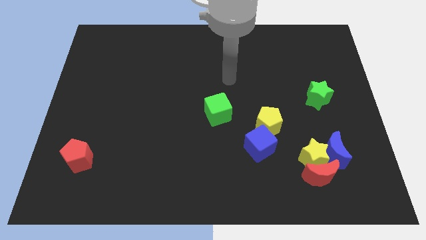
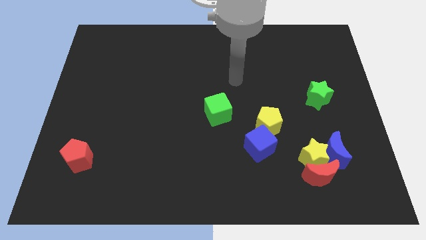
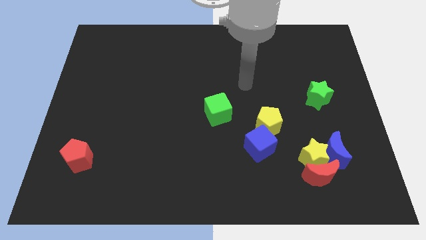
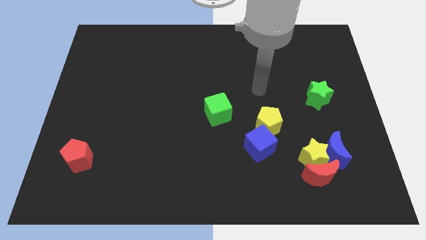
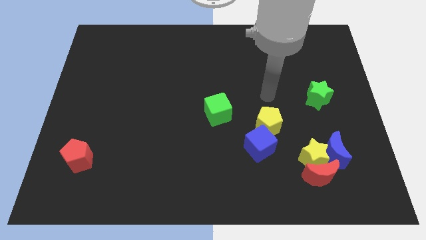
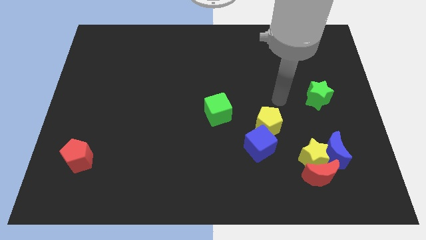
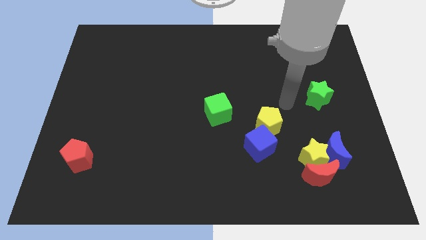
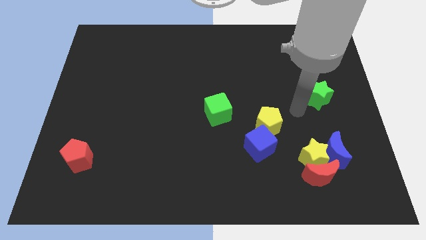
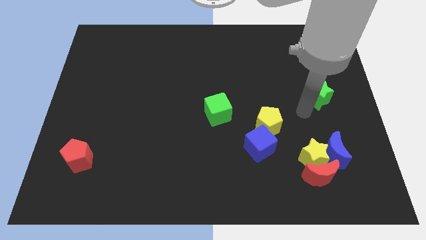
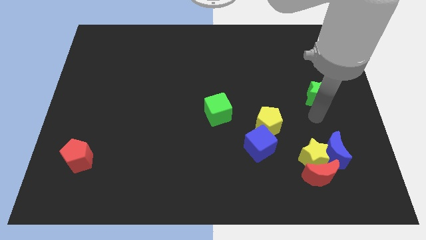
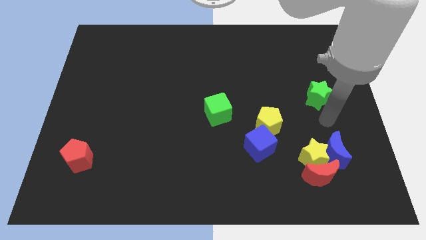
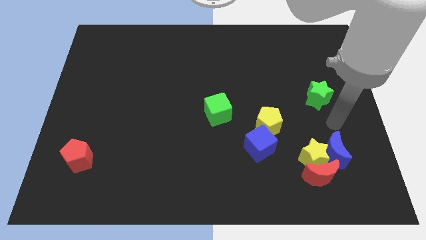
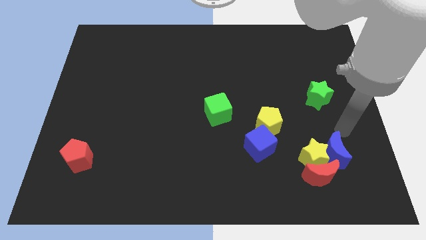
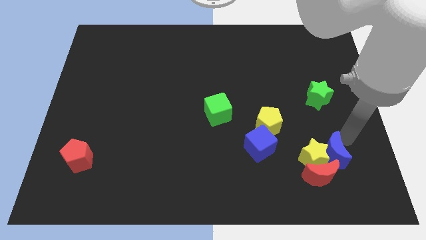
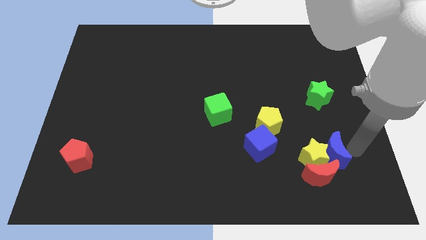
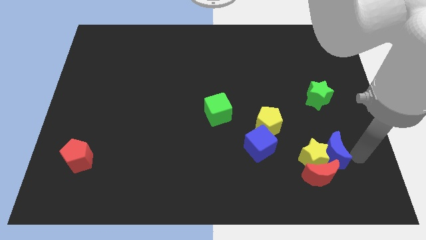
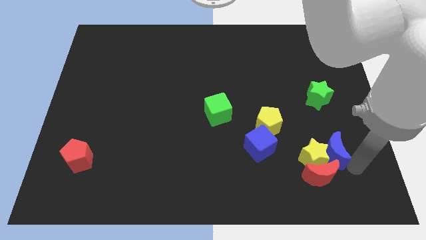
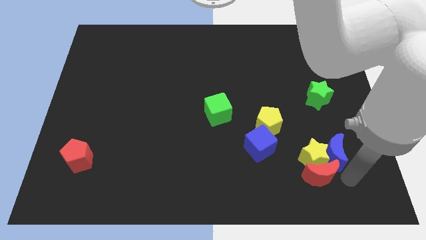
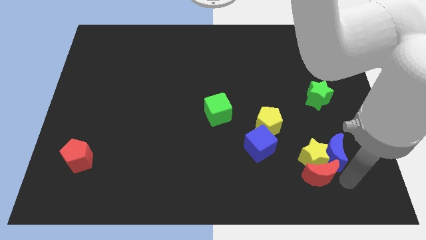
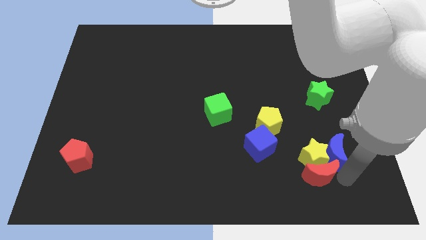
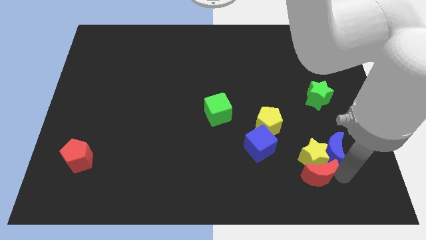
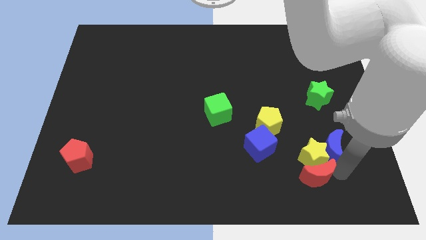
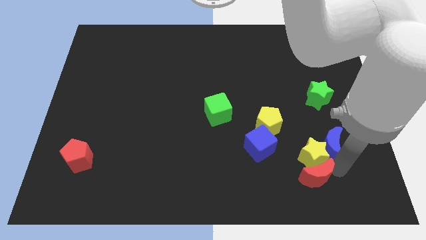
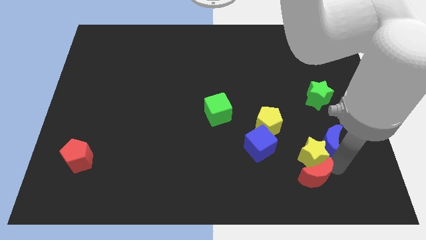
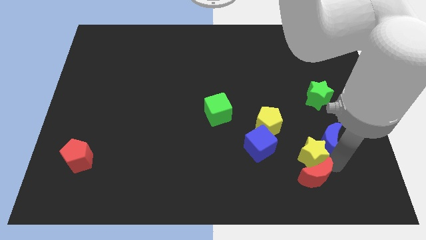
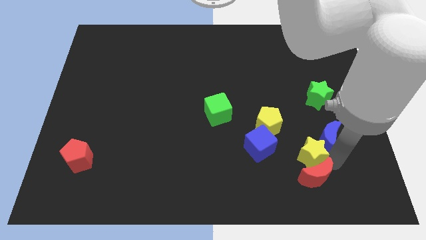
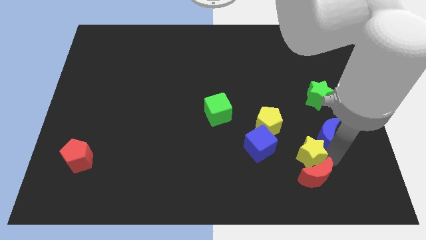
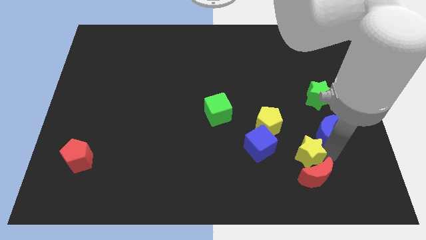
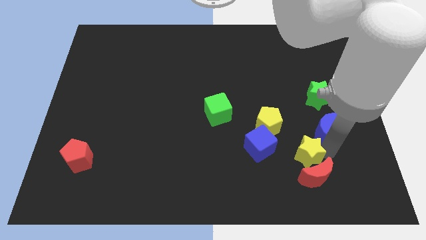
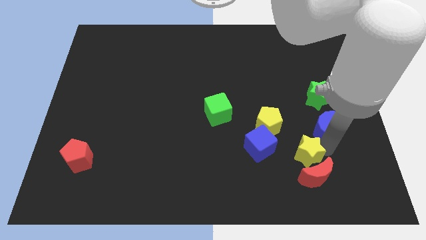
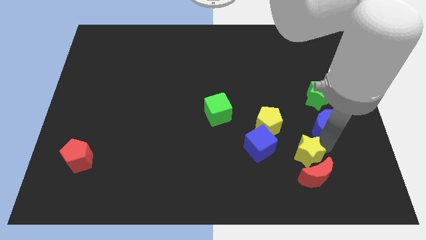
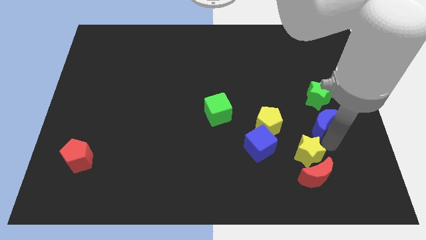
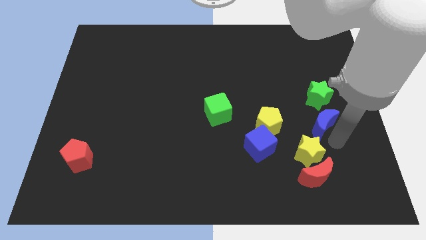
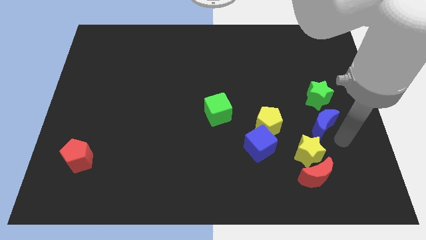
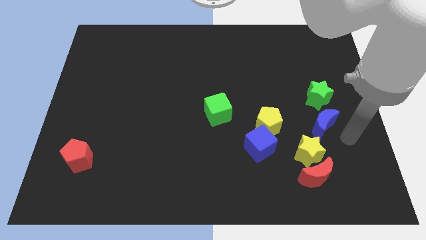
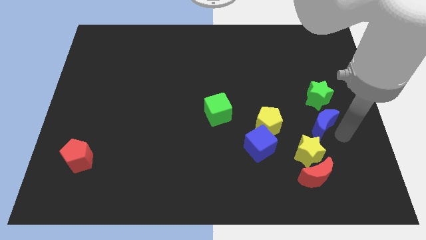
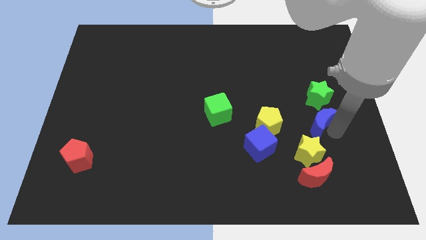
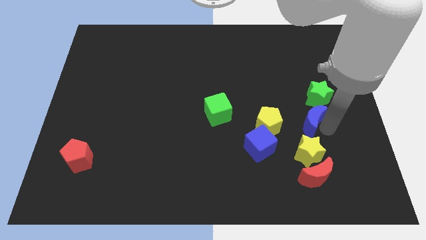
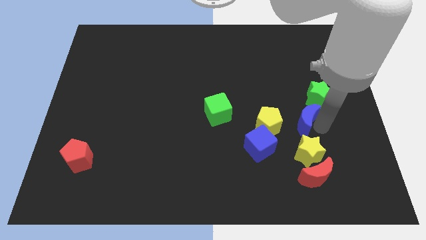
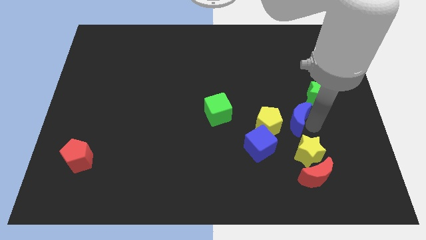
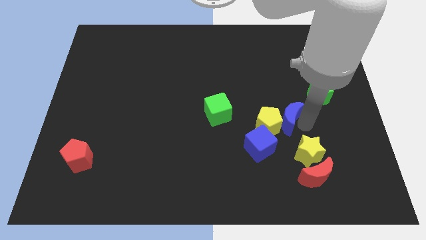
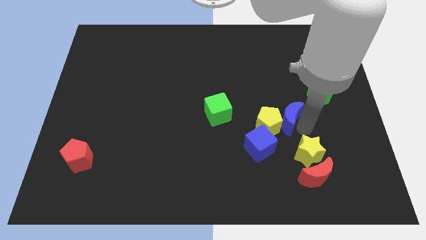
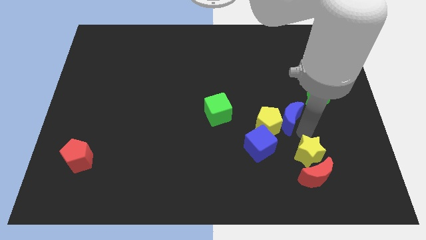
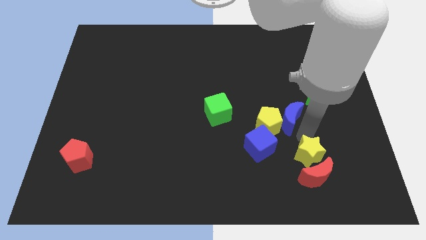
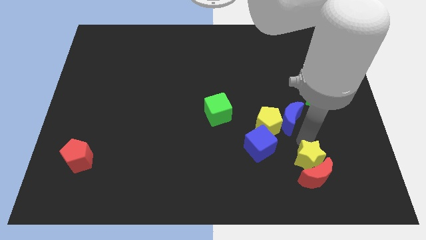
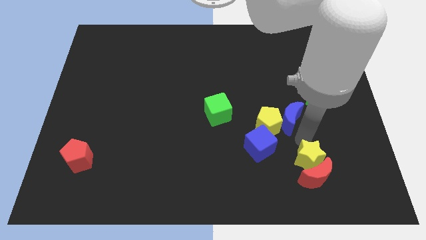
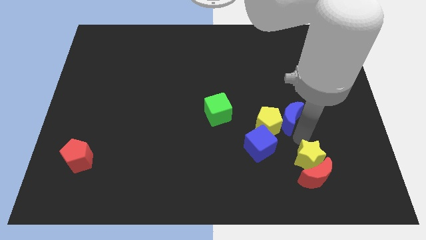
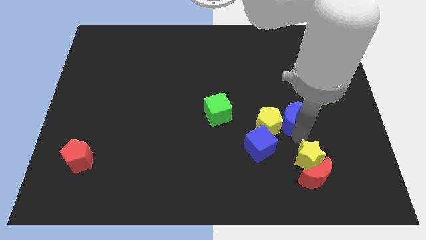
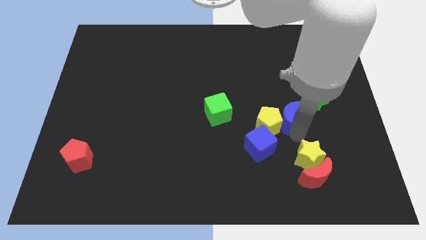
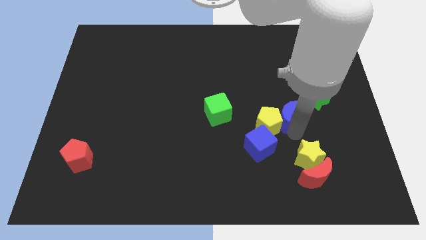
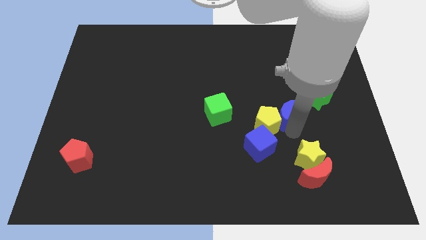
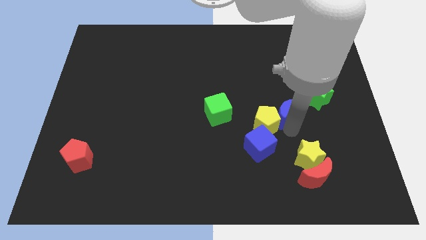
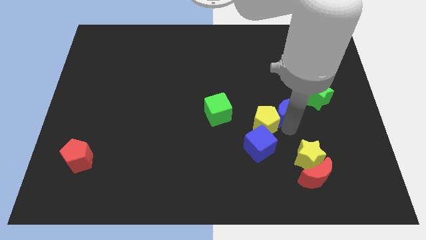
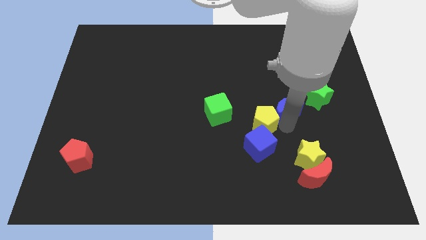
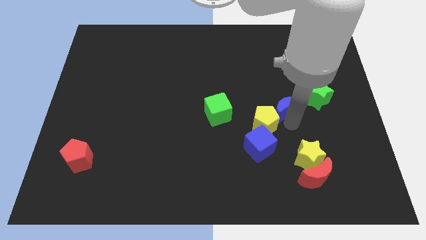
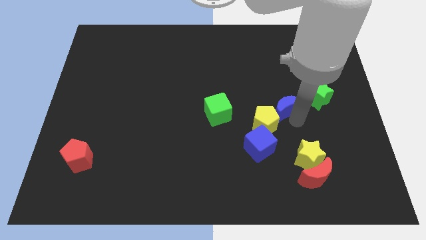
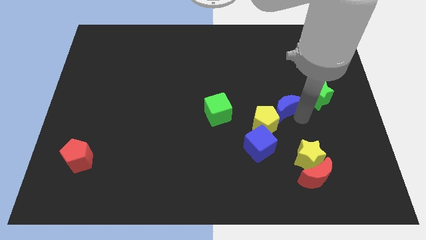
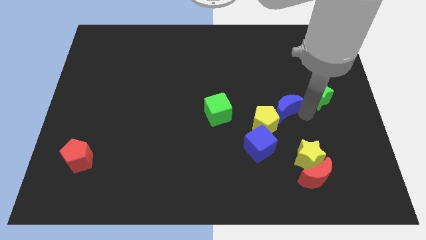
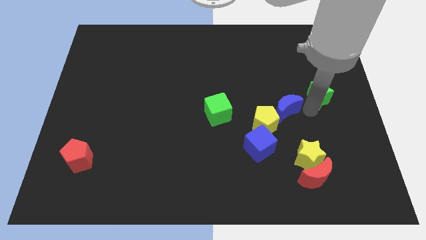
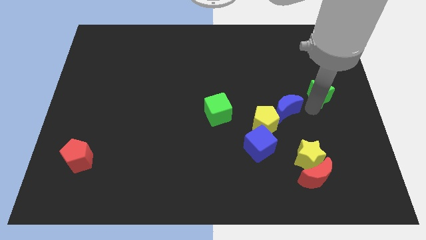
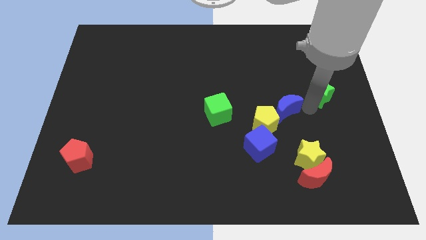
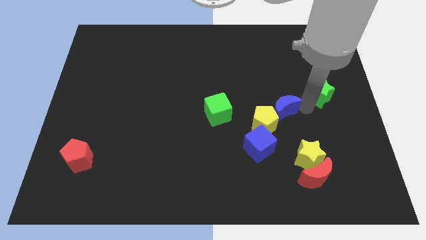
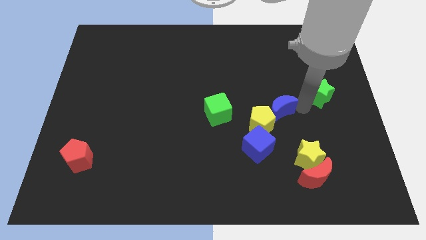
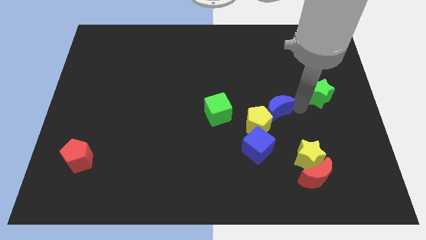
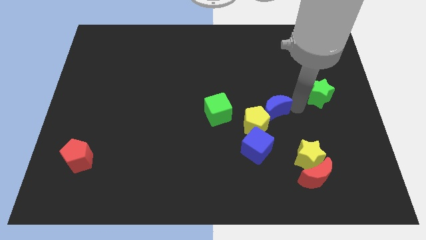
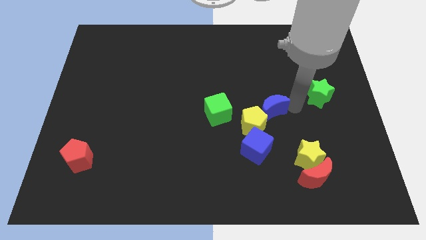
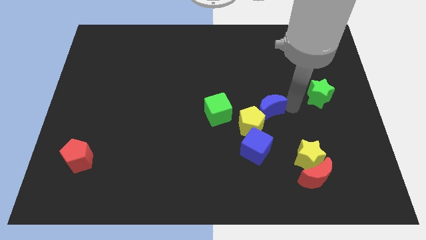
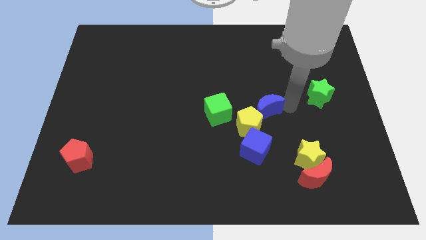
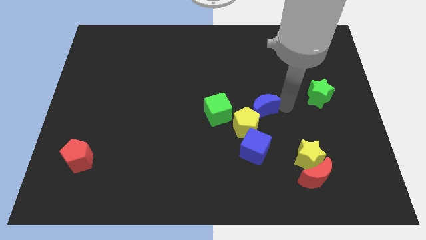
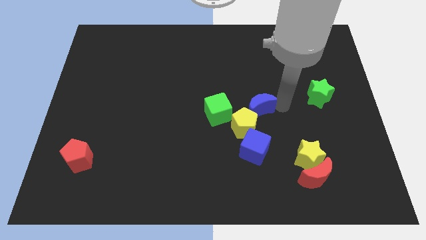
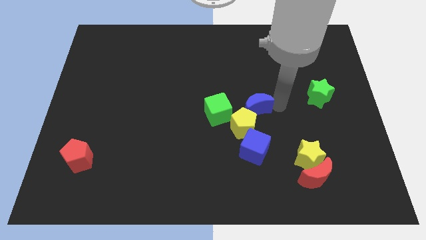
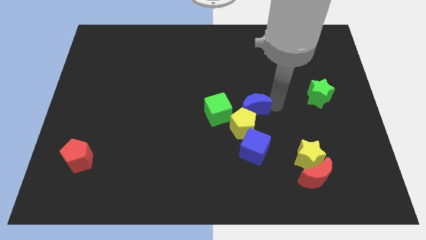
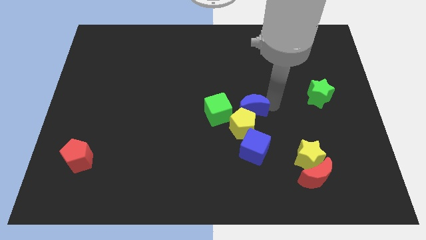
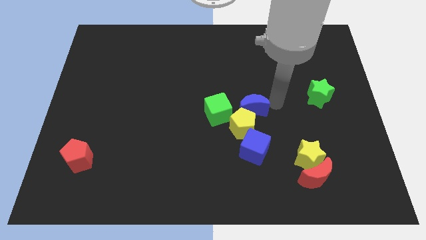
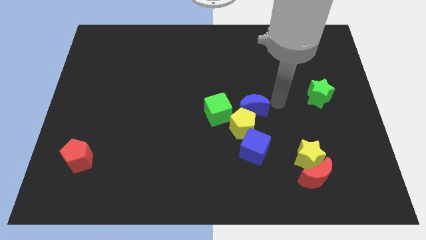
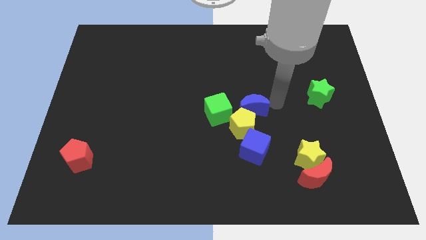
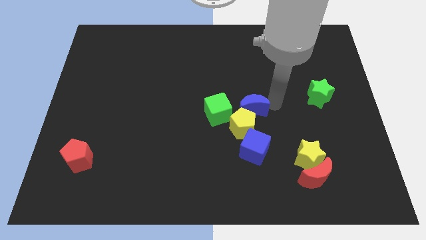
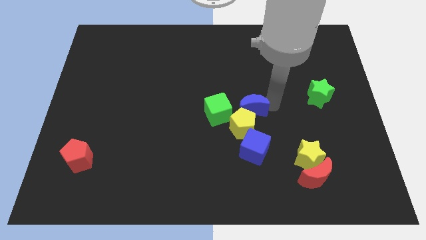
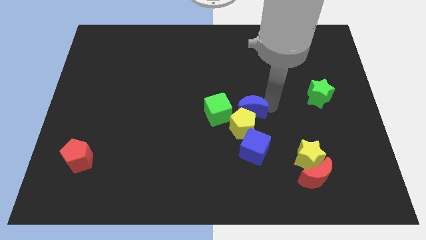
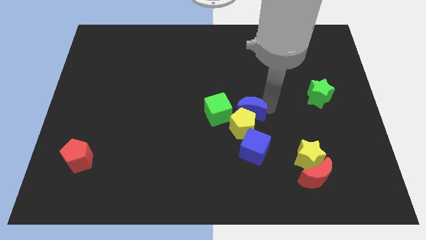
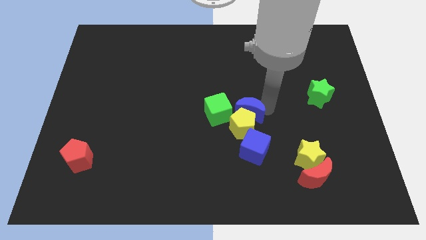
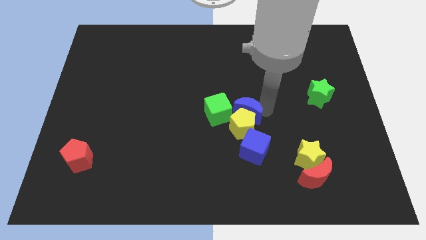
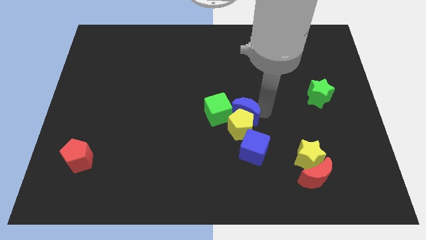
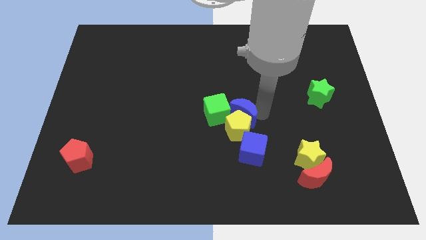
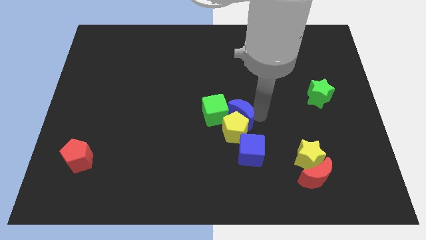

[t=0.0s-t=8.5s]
slide the blue moon next to the green cube
